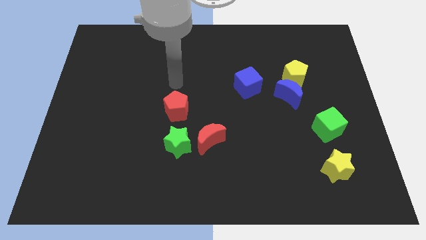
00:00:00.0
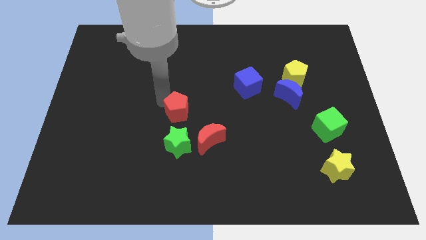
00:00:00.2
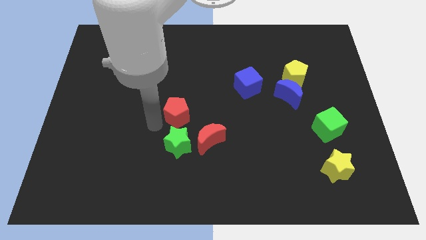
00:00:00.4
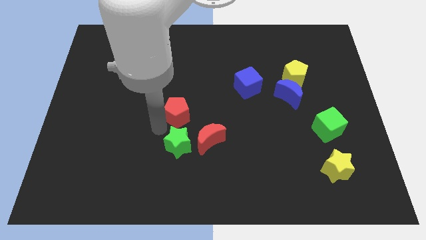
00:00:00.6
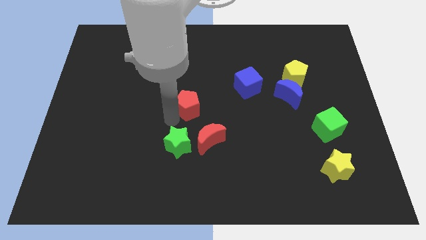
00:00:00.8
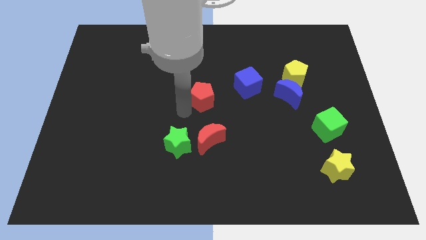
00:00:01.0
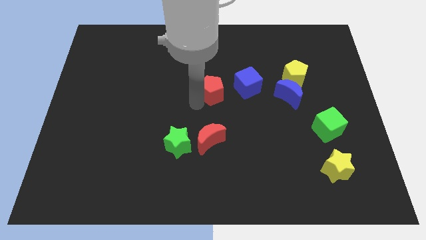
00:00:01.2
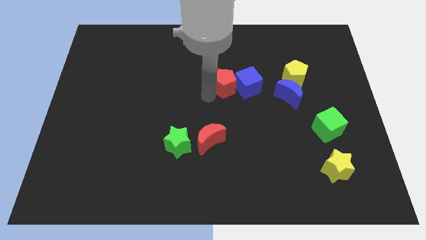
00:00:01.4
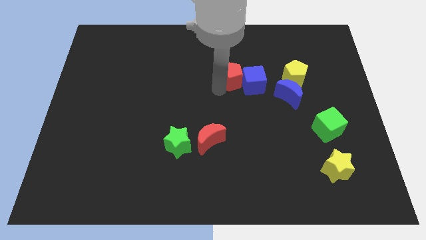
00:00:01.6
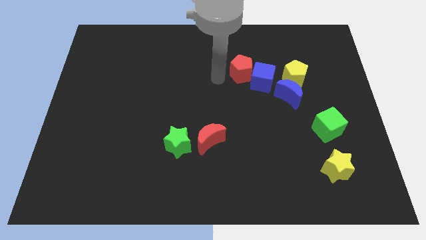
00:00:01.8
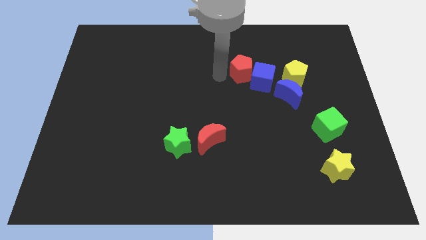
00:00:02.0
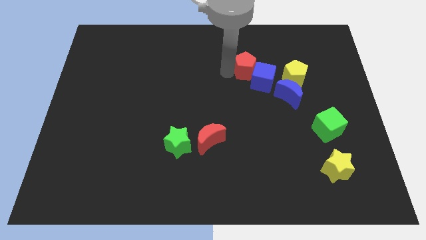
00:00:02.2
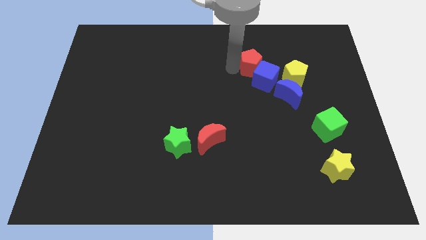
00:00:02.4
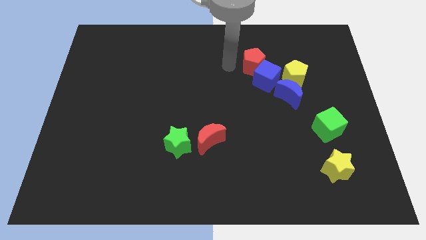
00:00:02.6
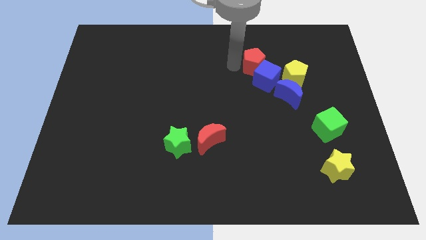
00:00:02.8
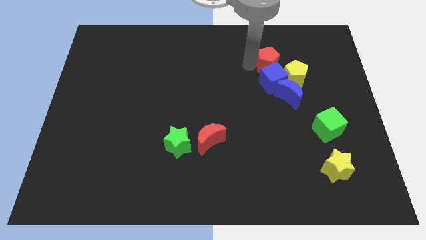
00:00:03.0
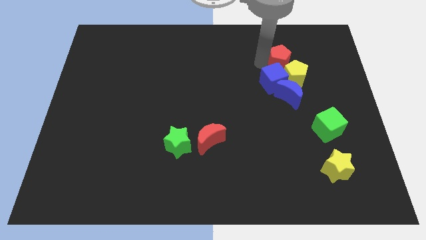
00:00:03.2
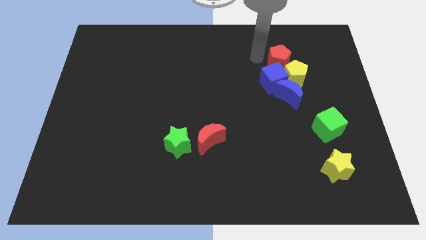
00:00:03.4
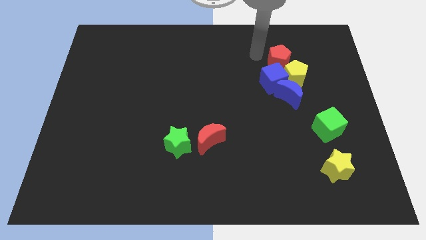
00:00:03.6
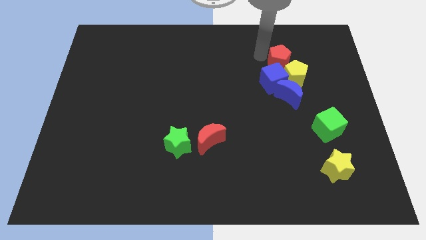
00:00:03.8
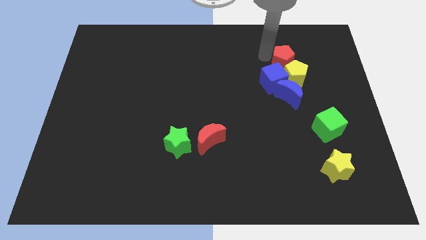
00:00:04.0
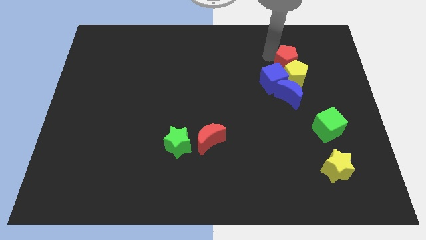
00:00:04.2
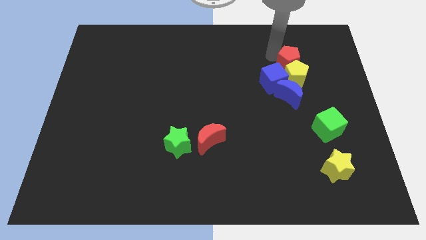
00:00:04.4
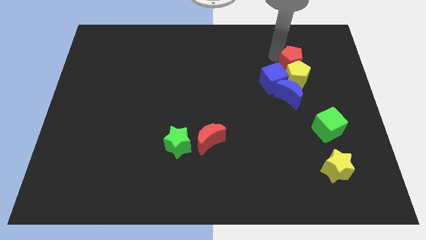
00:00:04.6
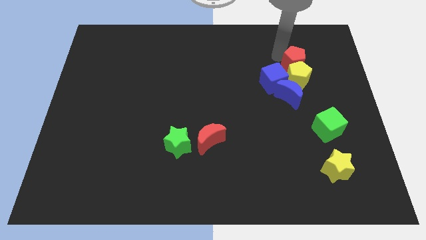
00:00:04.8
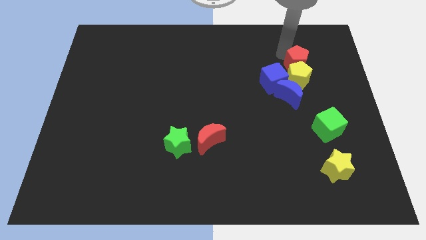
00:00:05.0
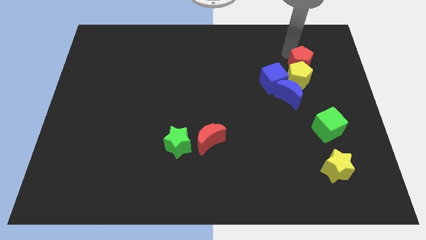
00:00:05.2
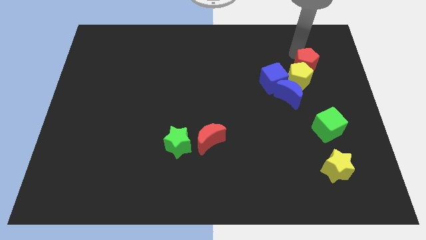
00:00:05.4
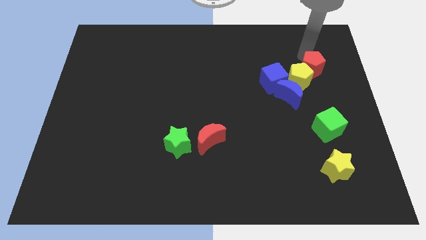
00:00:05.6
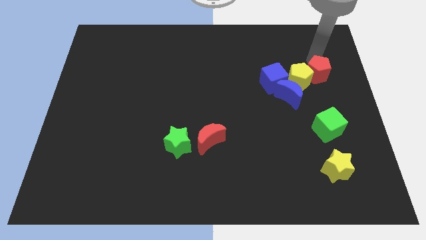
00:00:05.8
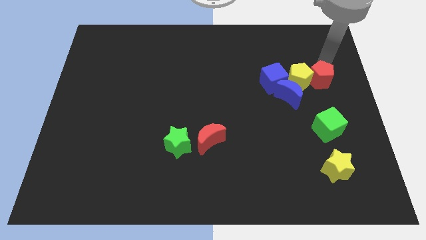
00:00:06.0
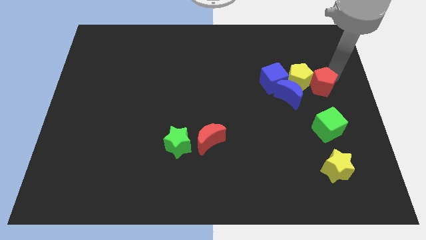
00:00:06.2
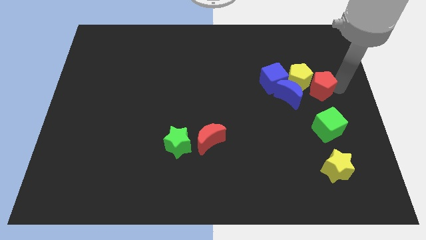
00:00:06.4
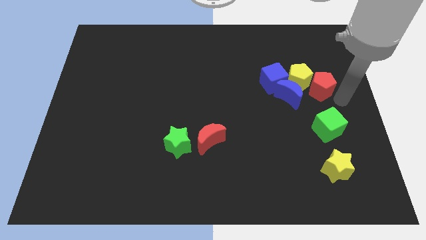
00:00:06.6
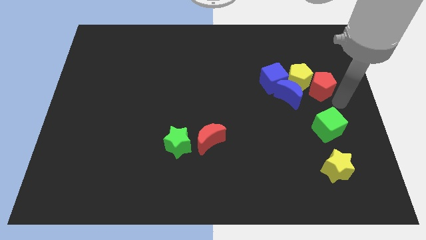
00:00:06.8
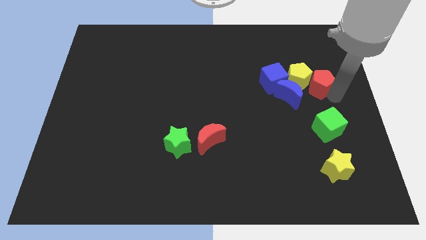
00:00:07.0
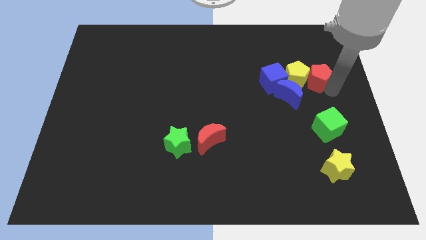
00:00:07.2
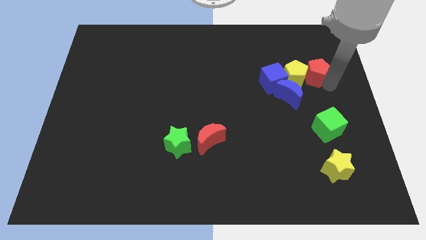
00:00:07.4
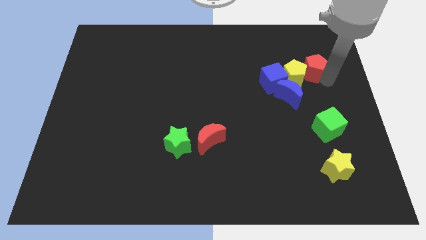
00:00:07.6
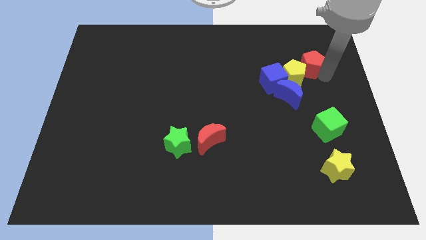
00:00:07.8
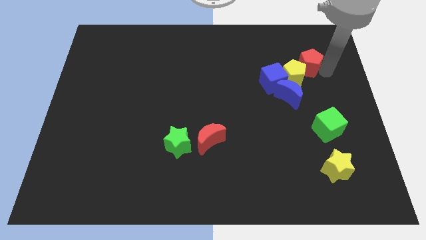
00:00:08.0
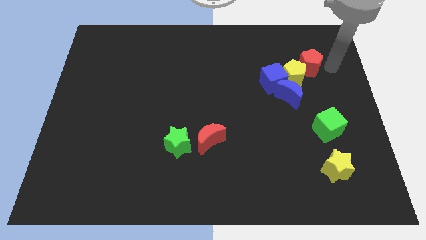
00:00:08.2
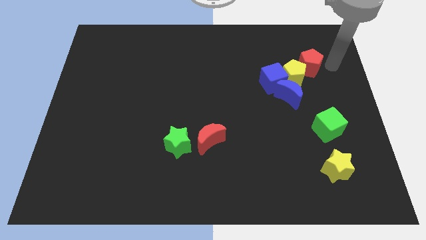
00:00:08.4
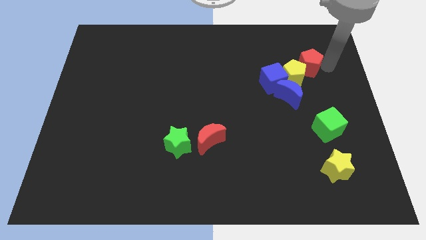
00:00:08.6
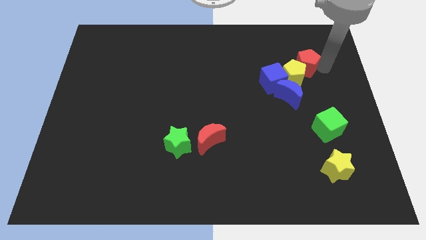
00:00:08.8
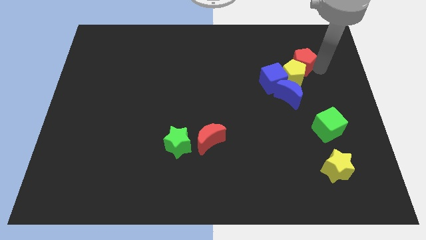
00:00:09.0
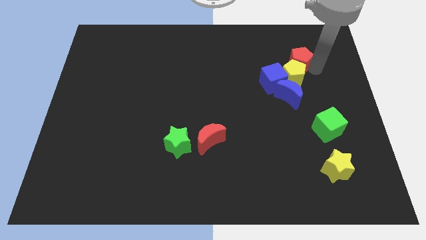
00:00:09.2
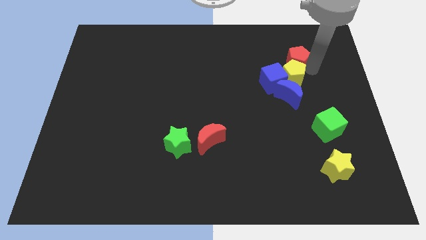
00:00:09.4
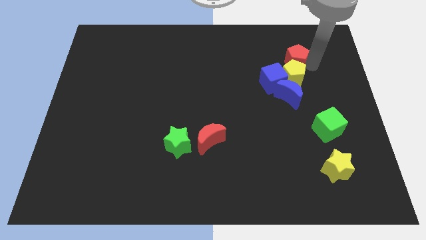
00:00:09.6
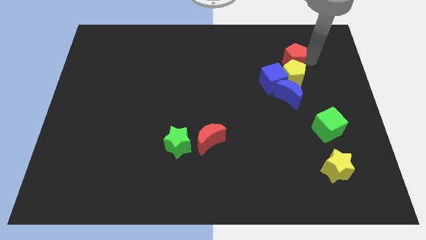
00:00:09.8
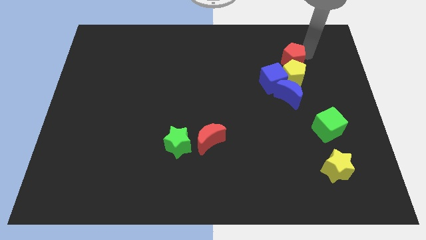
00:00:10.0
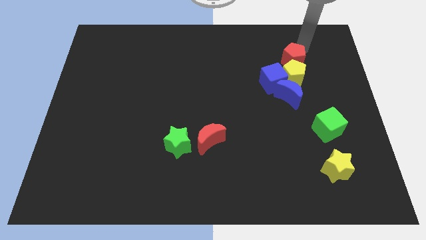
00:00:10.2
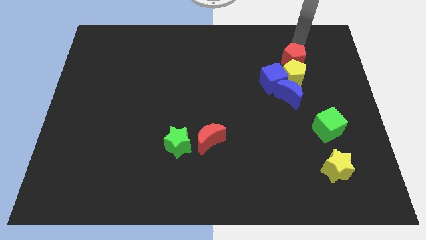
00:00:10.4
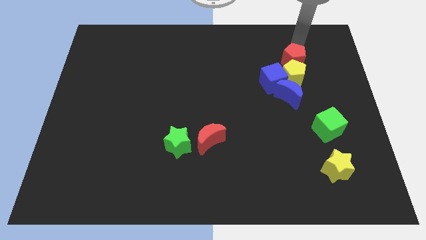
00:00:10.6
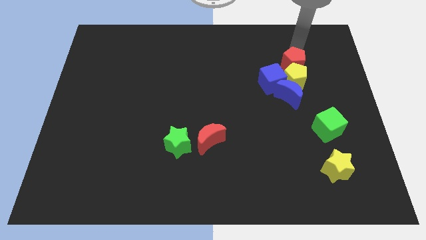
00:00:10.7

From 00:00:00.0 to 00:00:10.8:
push the red pentagon diagonally up and to the right of the blue cube

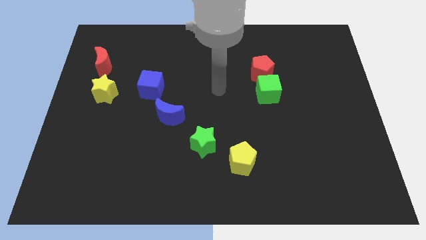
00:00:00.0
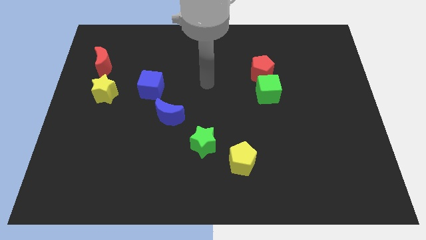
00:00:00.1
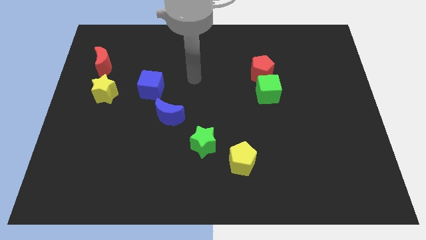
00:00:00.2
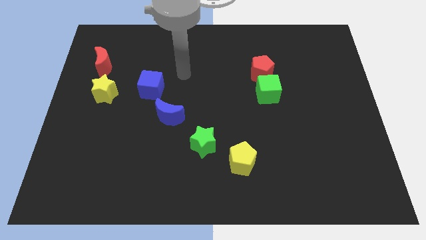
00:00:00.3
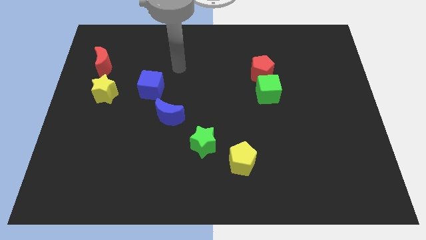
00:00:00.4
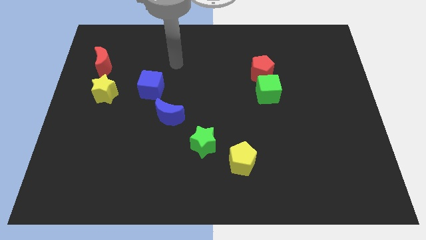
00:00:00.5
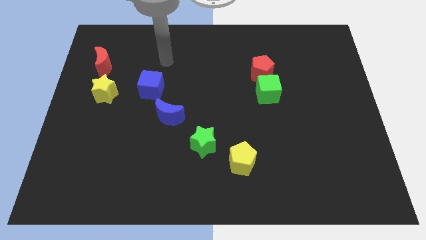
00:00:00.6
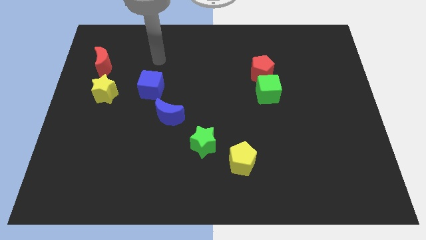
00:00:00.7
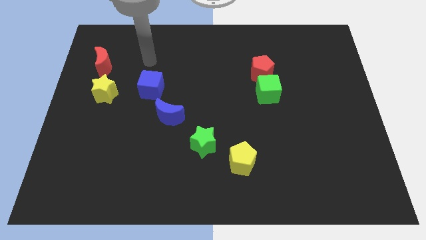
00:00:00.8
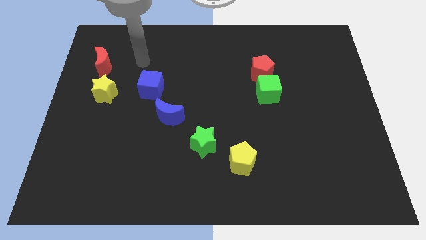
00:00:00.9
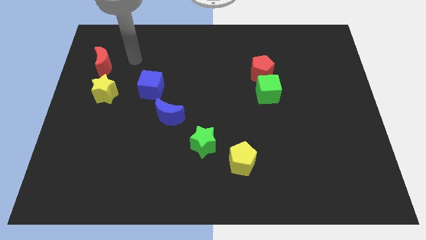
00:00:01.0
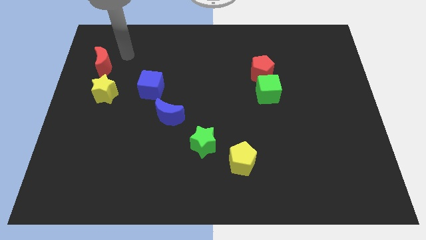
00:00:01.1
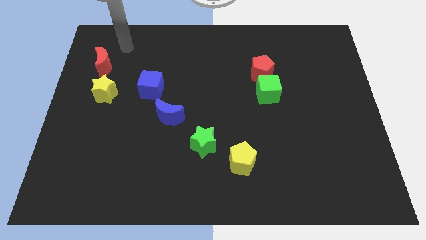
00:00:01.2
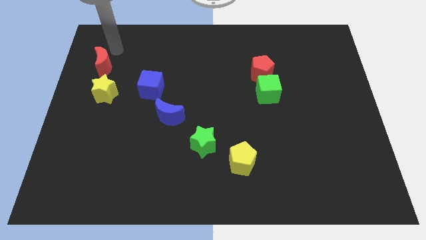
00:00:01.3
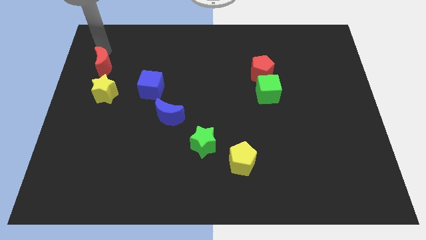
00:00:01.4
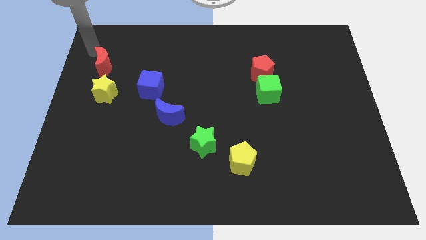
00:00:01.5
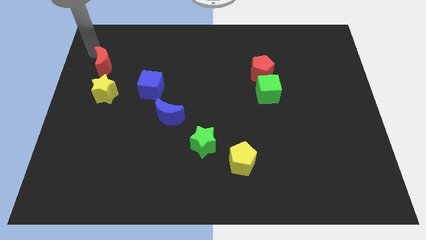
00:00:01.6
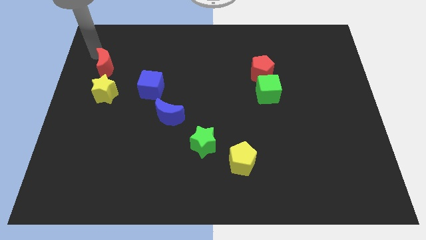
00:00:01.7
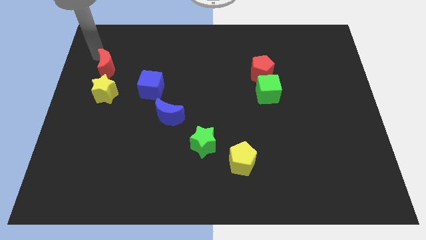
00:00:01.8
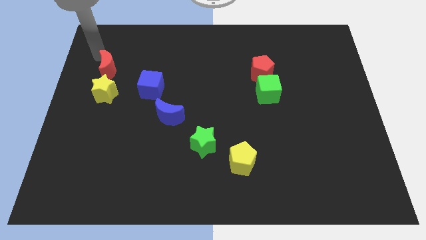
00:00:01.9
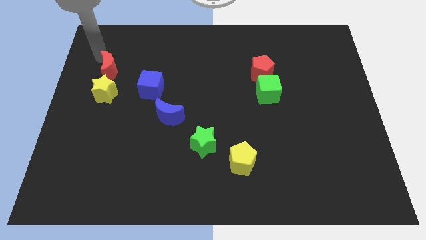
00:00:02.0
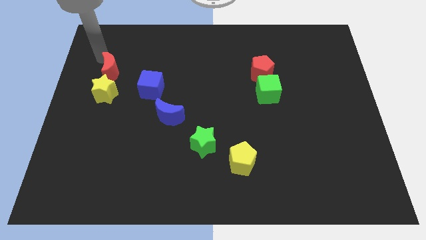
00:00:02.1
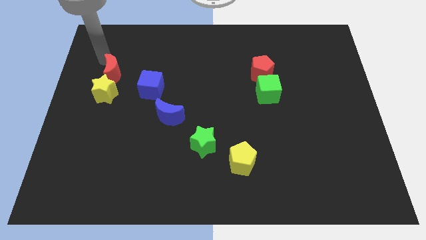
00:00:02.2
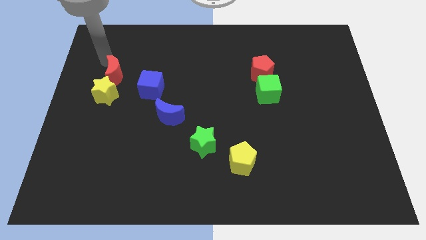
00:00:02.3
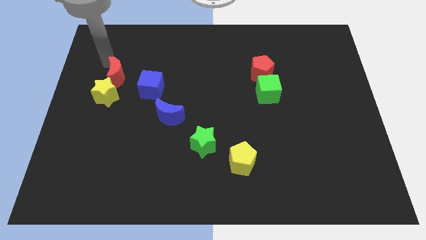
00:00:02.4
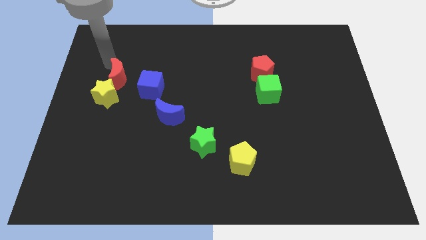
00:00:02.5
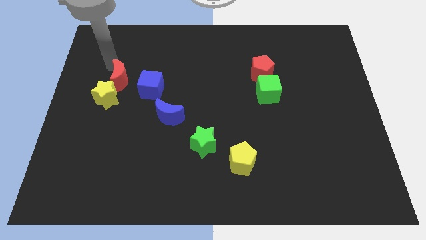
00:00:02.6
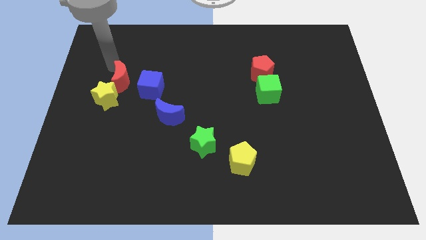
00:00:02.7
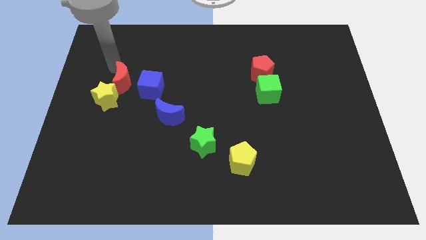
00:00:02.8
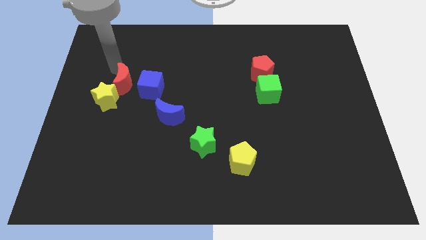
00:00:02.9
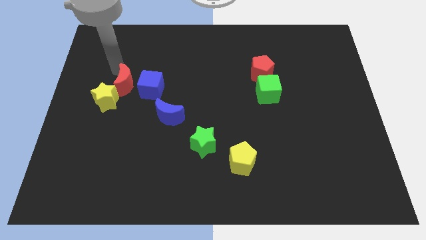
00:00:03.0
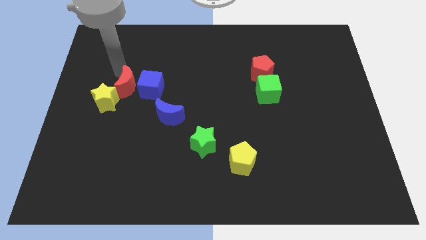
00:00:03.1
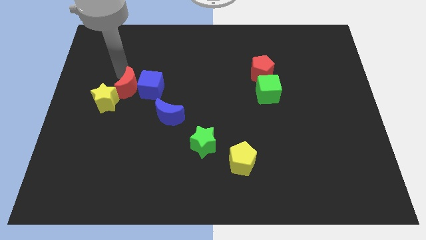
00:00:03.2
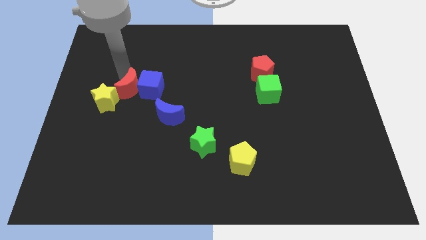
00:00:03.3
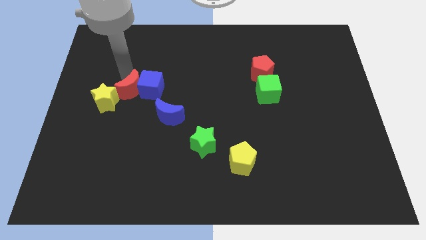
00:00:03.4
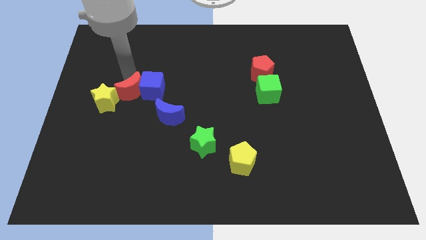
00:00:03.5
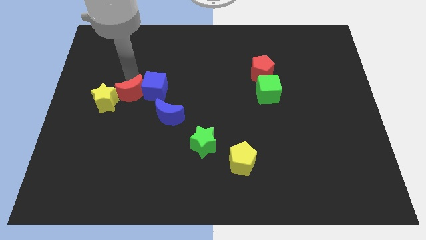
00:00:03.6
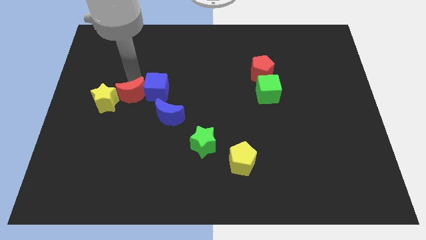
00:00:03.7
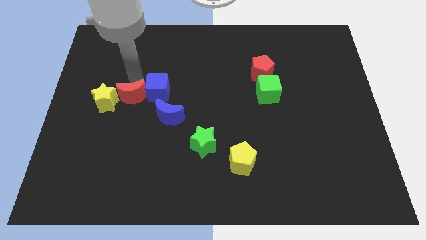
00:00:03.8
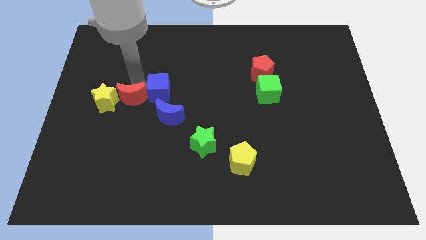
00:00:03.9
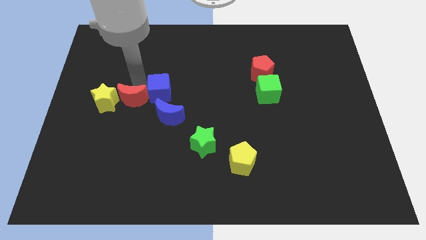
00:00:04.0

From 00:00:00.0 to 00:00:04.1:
push the red moon to the bottom right side of the yellow star
